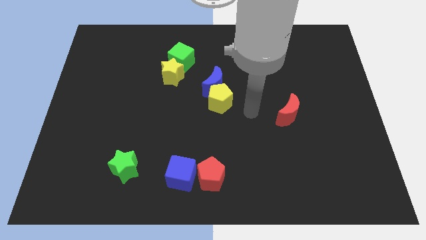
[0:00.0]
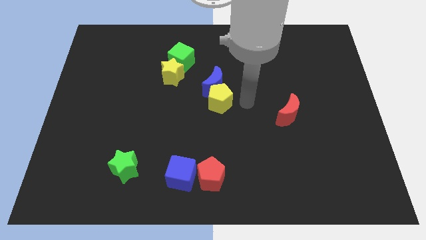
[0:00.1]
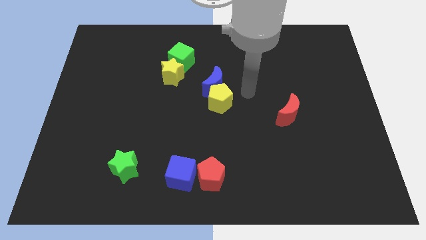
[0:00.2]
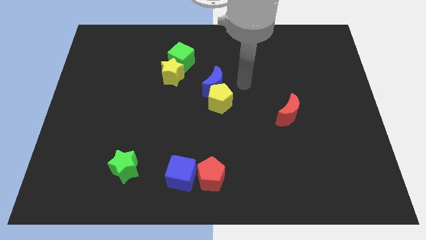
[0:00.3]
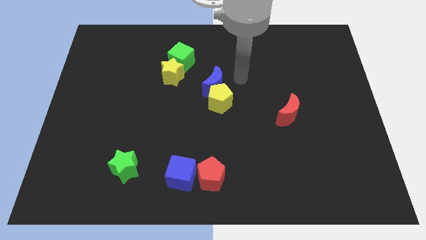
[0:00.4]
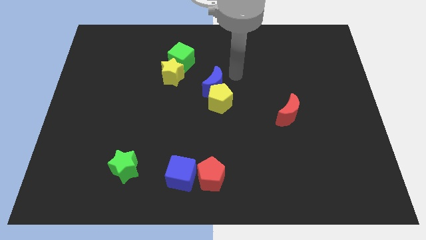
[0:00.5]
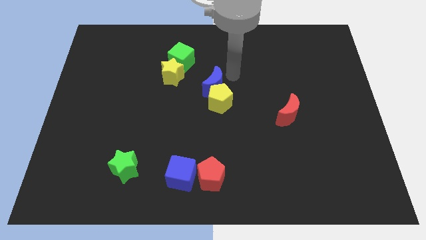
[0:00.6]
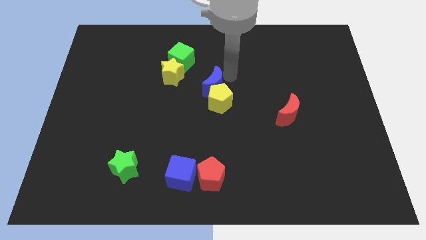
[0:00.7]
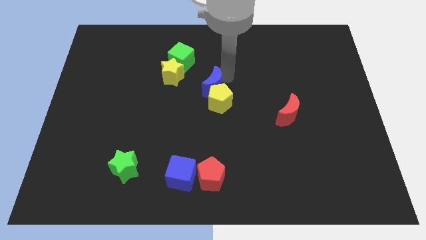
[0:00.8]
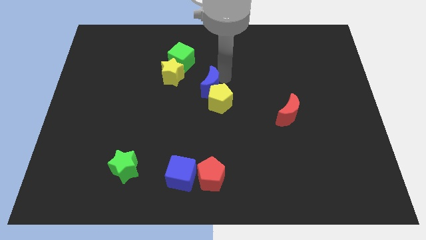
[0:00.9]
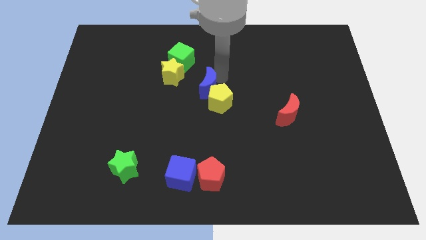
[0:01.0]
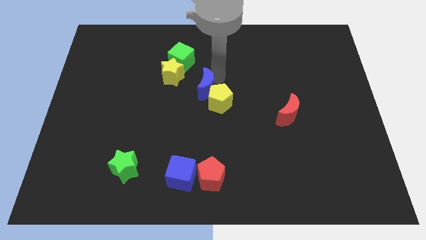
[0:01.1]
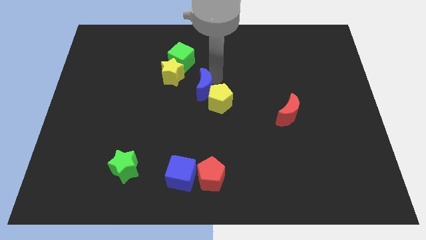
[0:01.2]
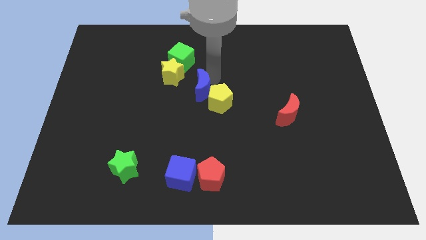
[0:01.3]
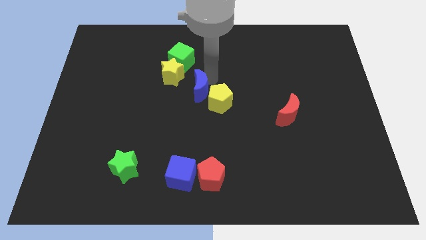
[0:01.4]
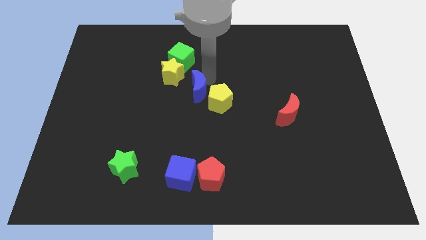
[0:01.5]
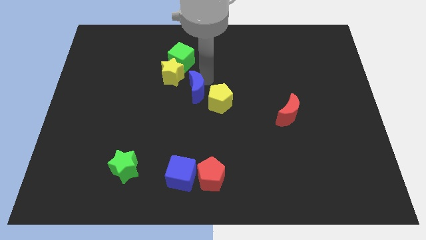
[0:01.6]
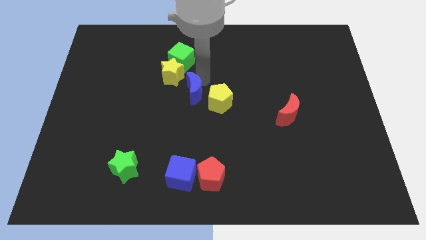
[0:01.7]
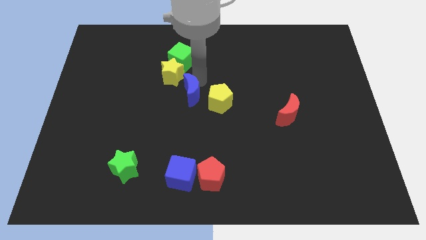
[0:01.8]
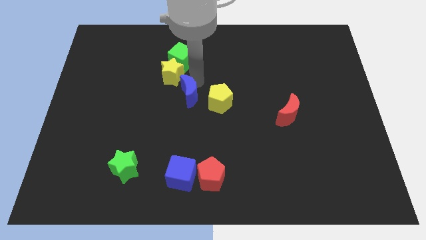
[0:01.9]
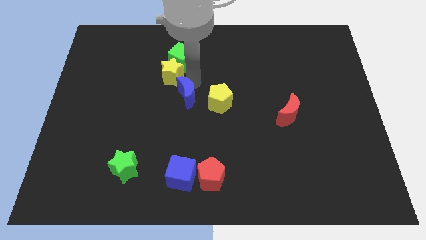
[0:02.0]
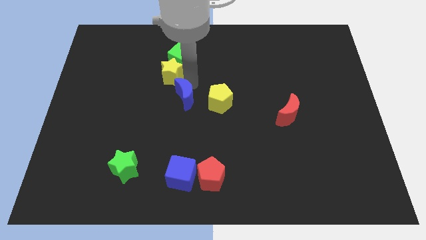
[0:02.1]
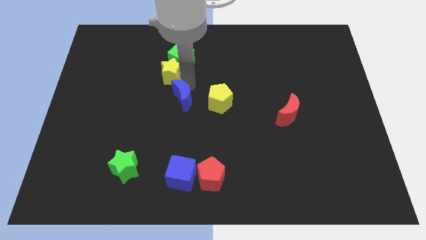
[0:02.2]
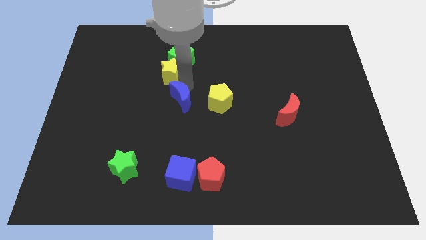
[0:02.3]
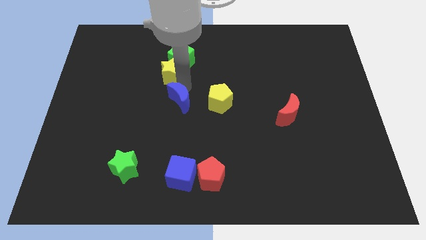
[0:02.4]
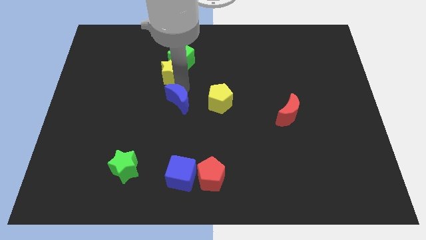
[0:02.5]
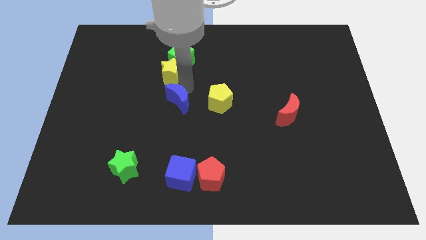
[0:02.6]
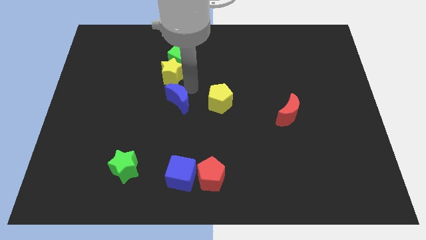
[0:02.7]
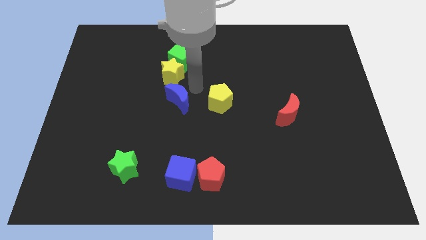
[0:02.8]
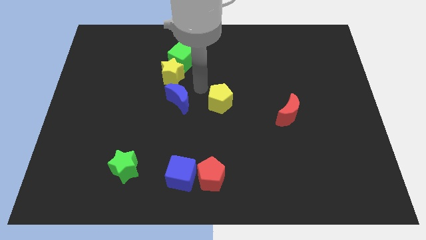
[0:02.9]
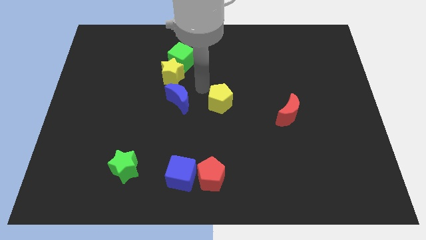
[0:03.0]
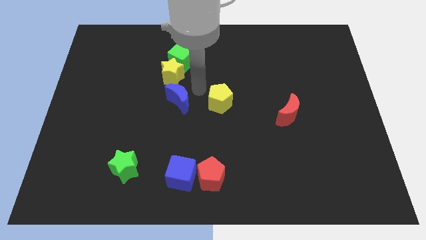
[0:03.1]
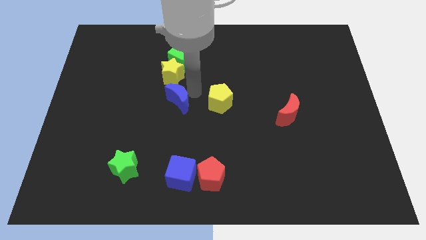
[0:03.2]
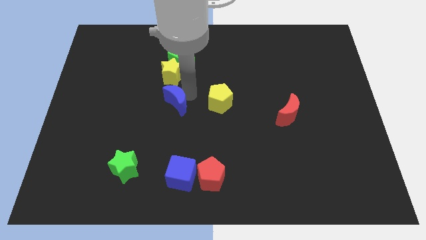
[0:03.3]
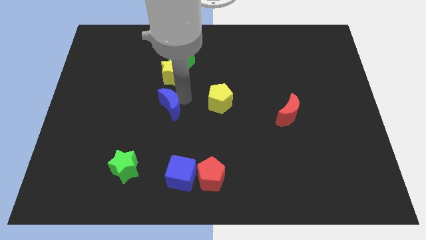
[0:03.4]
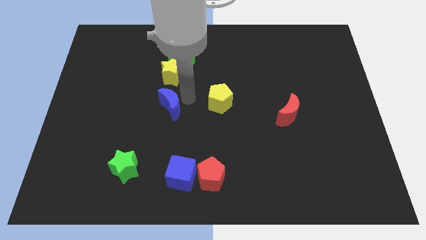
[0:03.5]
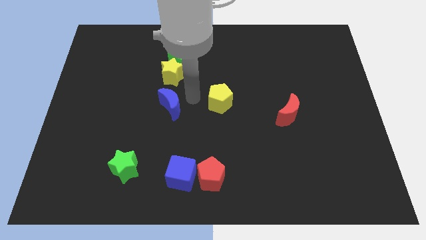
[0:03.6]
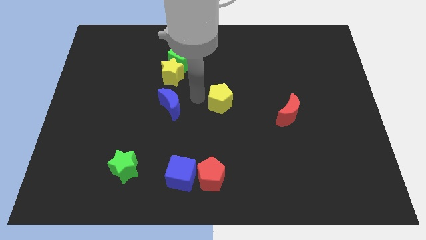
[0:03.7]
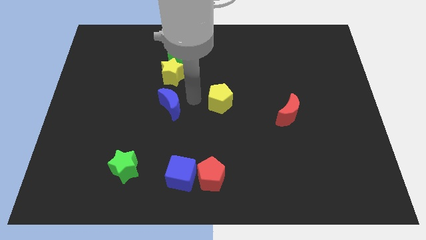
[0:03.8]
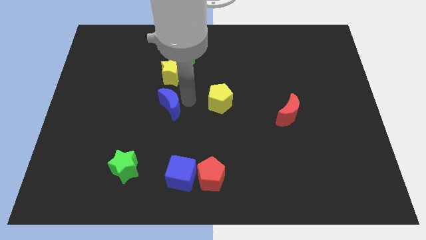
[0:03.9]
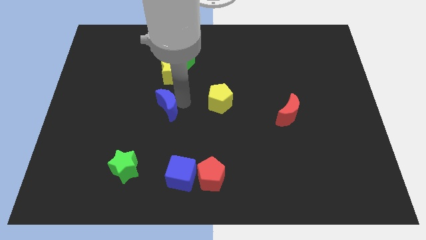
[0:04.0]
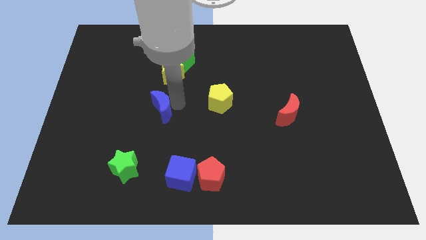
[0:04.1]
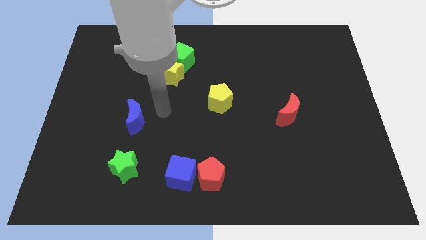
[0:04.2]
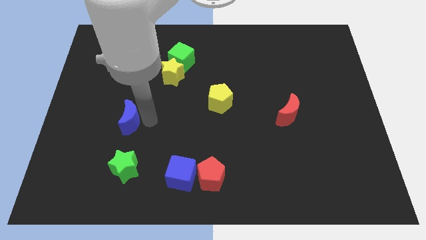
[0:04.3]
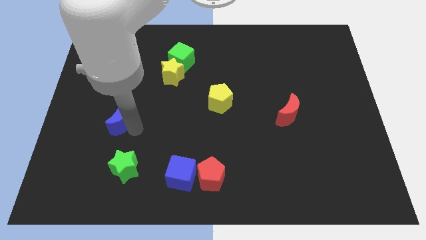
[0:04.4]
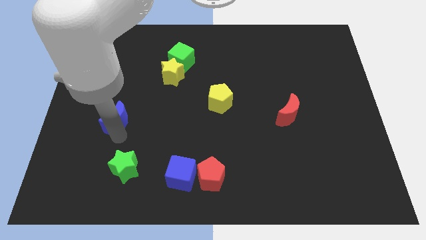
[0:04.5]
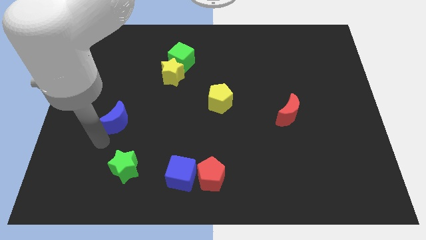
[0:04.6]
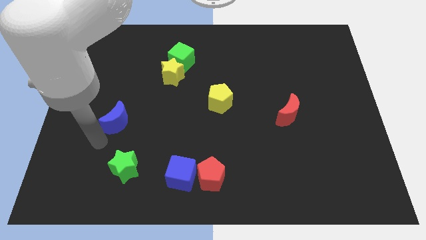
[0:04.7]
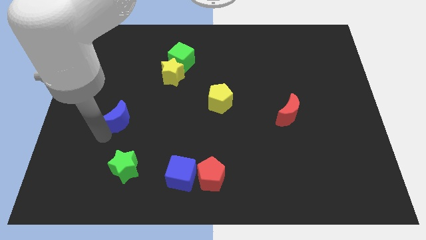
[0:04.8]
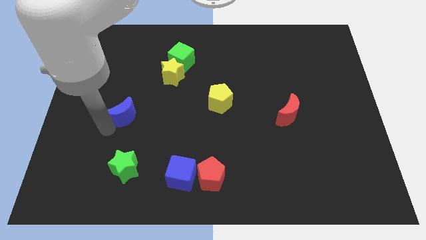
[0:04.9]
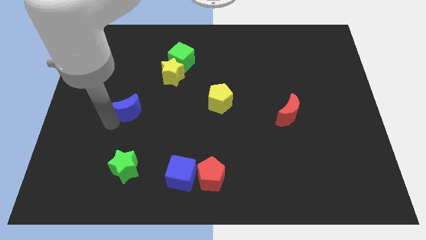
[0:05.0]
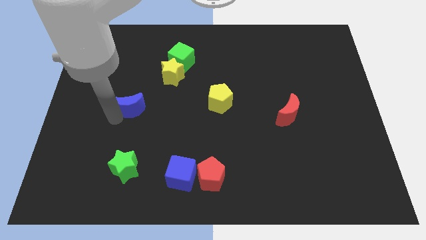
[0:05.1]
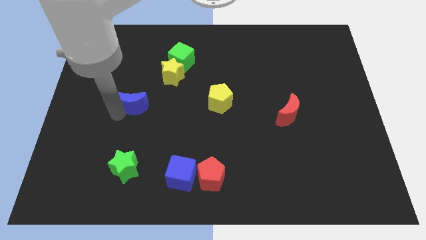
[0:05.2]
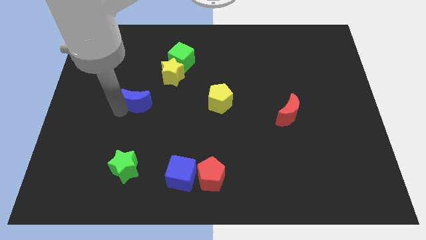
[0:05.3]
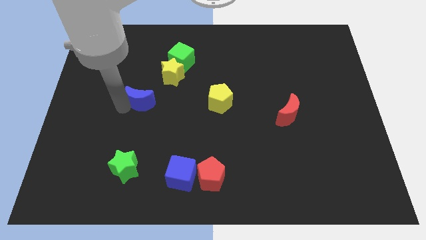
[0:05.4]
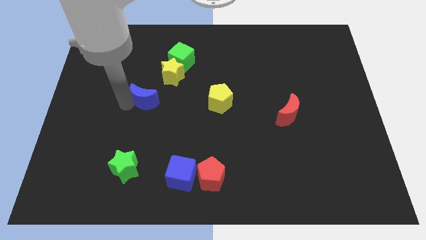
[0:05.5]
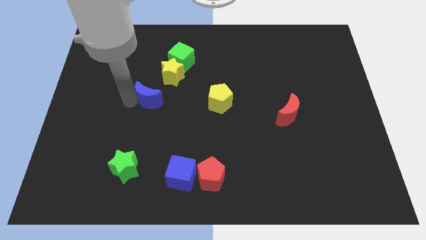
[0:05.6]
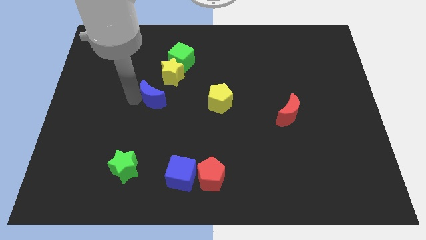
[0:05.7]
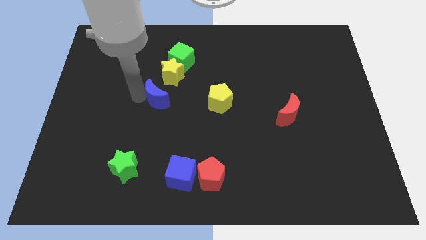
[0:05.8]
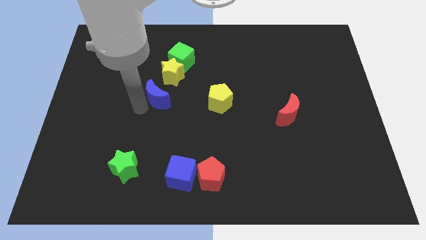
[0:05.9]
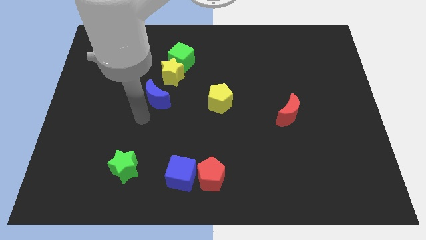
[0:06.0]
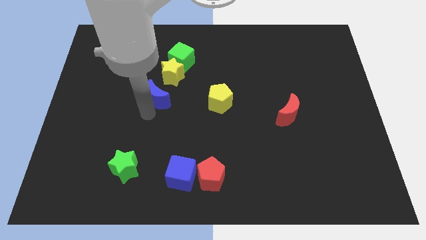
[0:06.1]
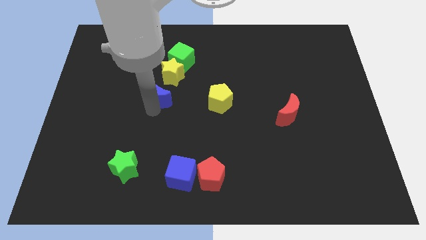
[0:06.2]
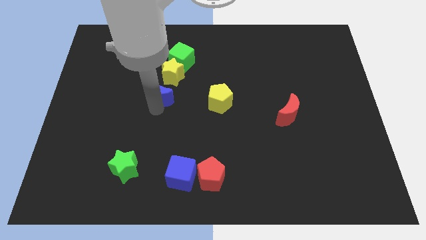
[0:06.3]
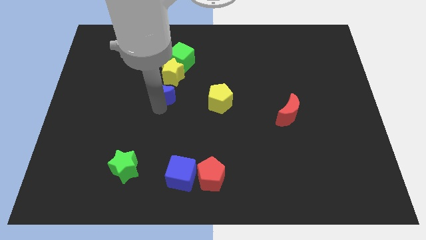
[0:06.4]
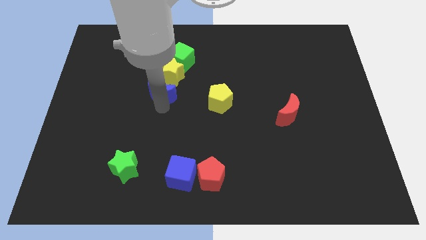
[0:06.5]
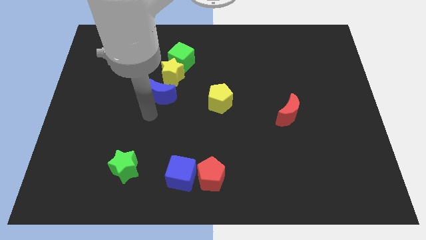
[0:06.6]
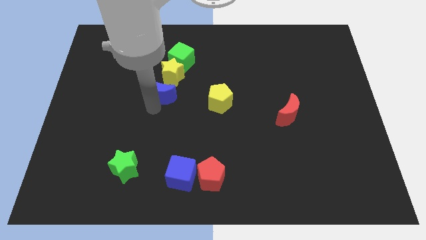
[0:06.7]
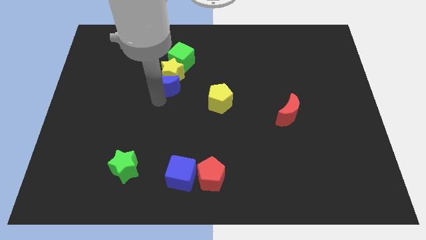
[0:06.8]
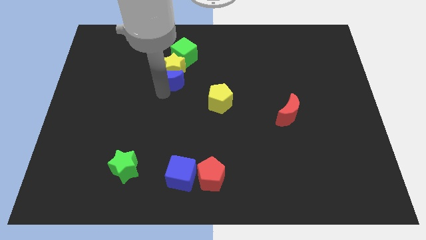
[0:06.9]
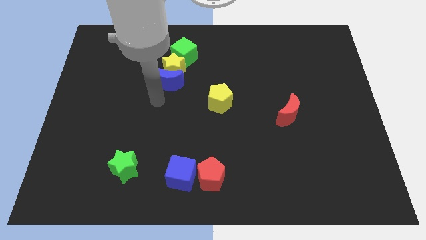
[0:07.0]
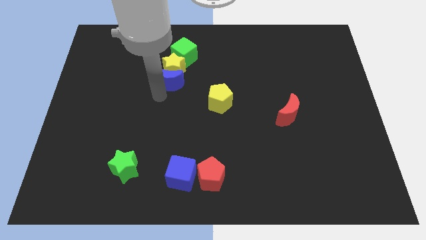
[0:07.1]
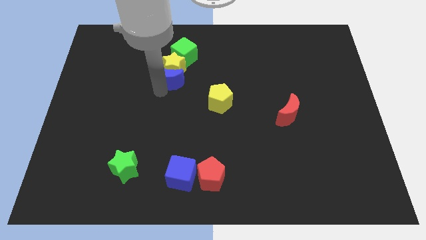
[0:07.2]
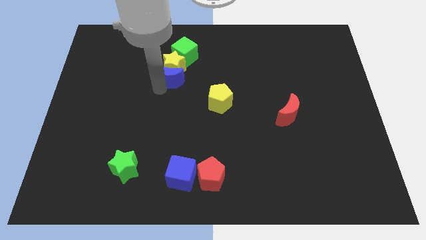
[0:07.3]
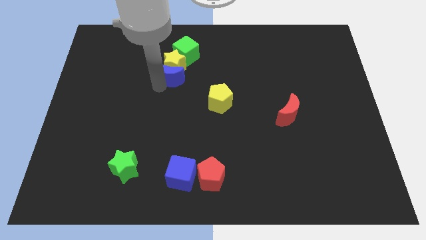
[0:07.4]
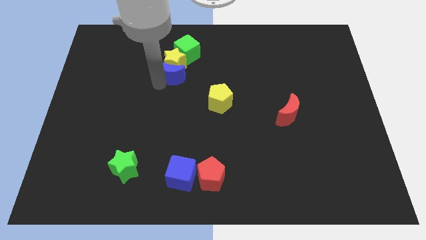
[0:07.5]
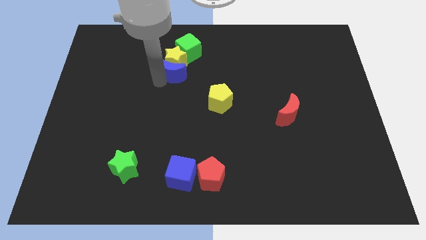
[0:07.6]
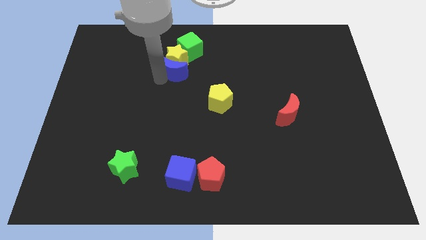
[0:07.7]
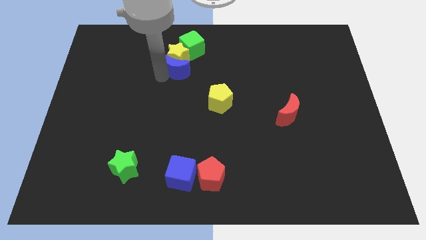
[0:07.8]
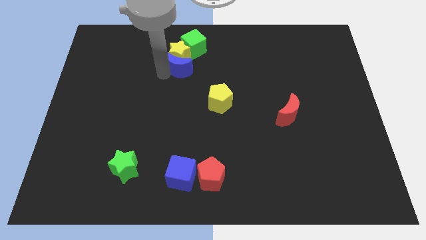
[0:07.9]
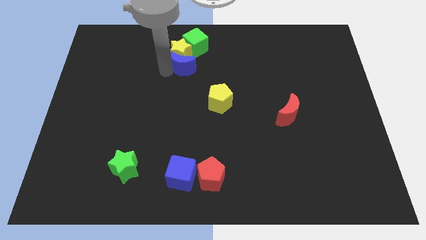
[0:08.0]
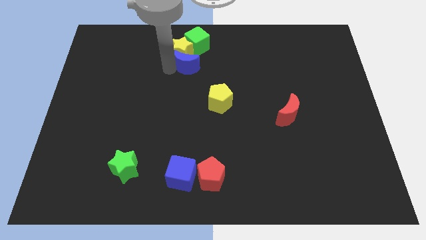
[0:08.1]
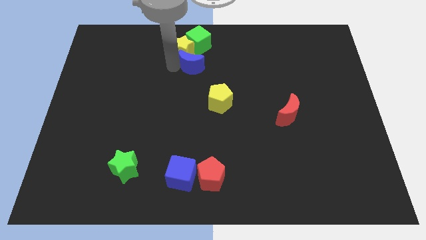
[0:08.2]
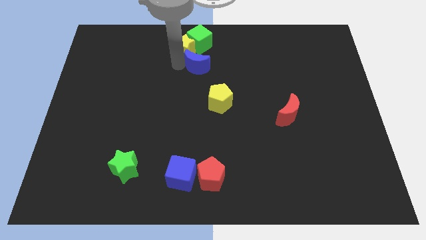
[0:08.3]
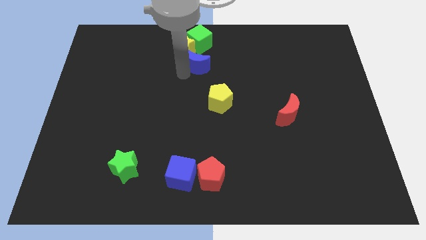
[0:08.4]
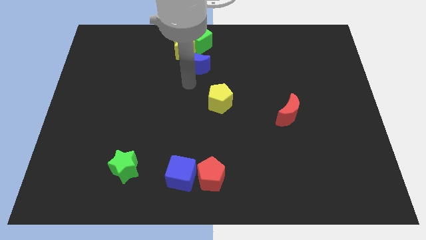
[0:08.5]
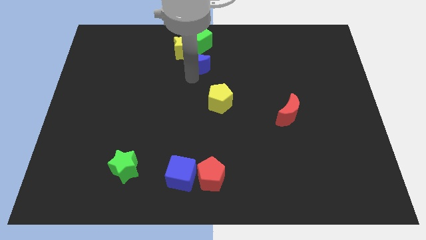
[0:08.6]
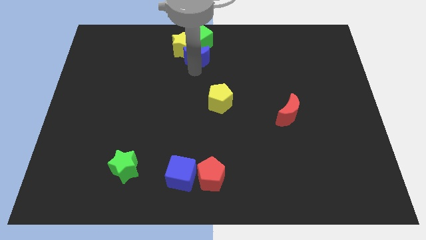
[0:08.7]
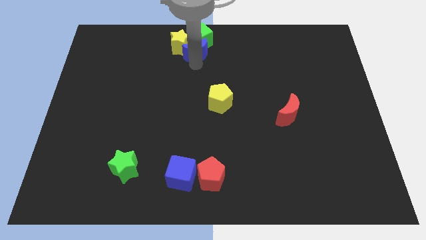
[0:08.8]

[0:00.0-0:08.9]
push the blue moon to the towards your base
